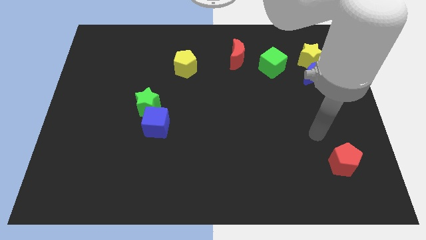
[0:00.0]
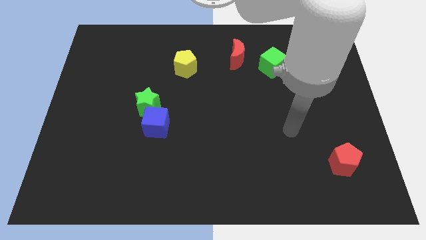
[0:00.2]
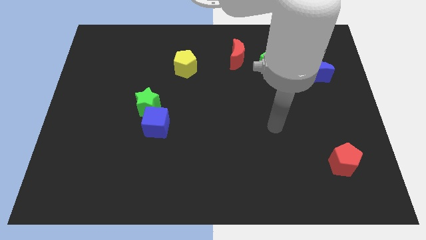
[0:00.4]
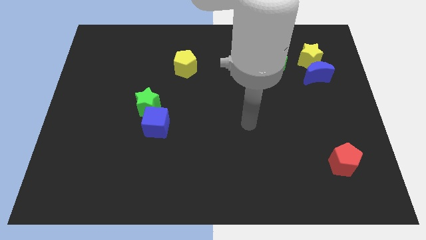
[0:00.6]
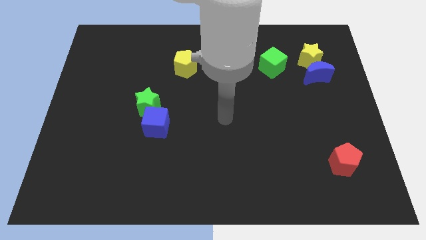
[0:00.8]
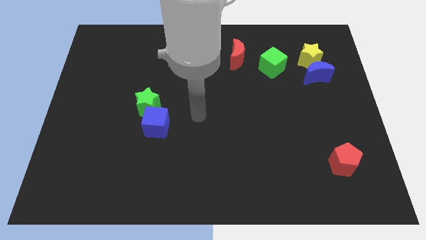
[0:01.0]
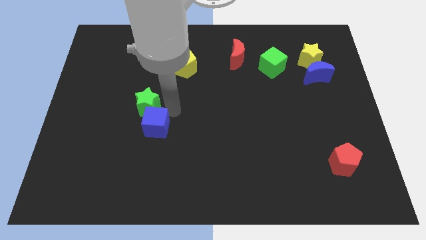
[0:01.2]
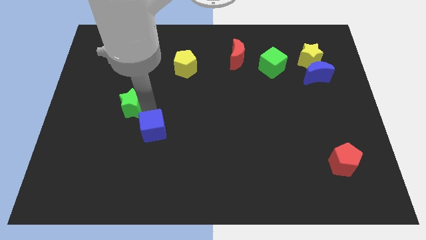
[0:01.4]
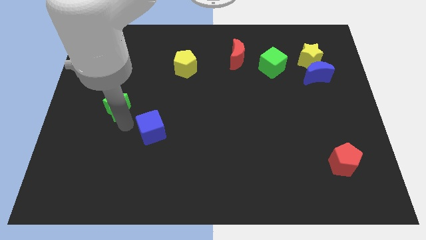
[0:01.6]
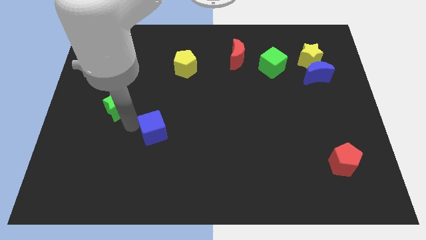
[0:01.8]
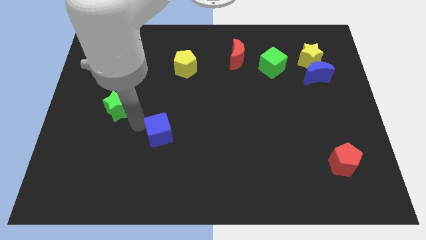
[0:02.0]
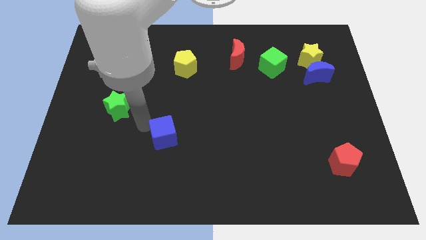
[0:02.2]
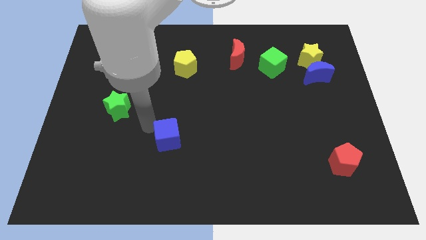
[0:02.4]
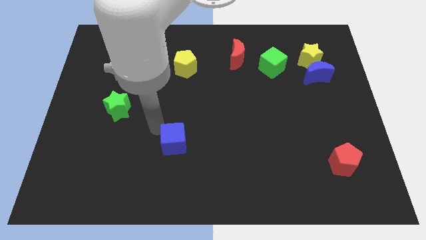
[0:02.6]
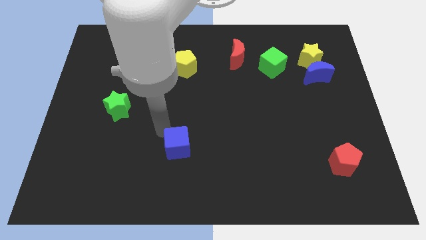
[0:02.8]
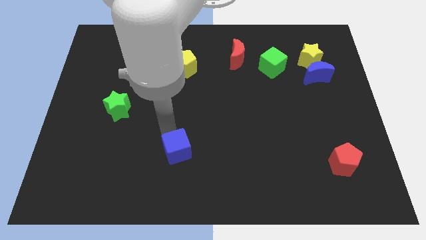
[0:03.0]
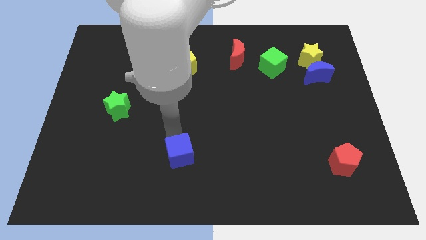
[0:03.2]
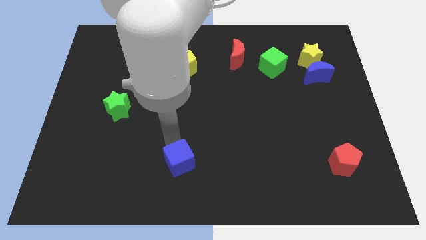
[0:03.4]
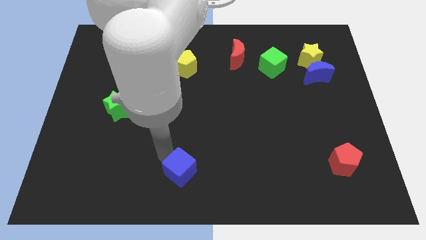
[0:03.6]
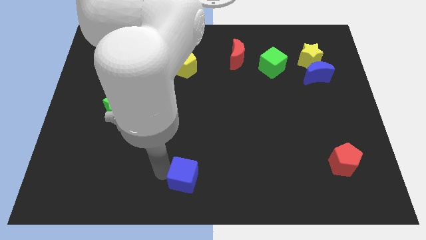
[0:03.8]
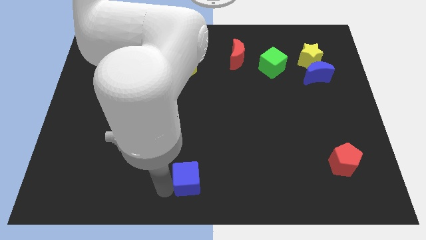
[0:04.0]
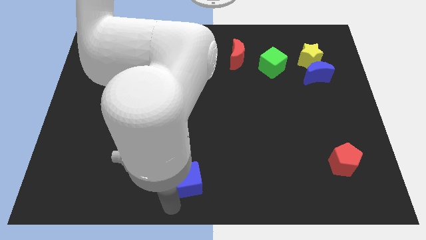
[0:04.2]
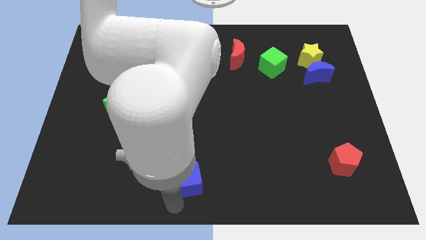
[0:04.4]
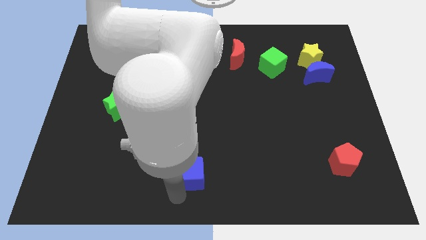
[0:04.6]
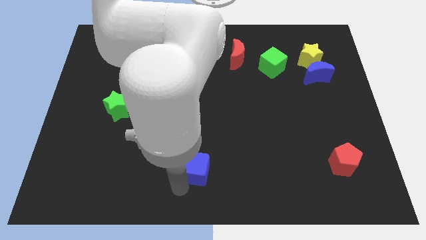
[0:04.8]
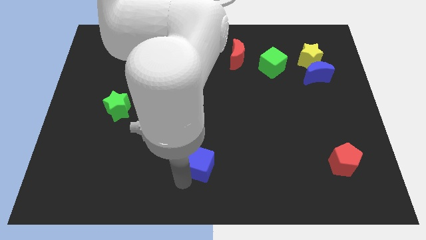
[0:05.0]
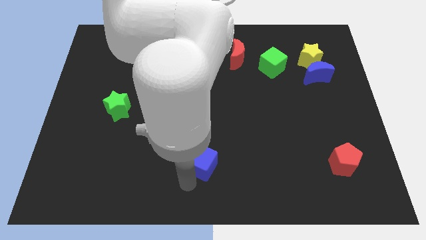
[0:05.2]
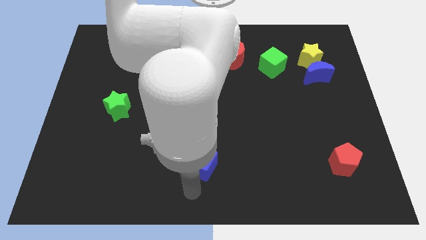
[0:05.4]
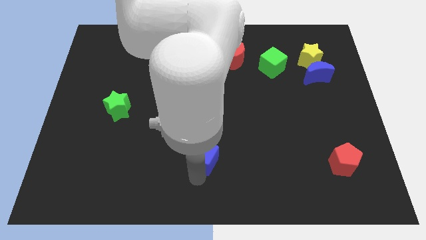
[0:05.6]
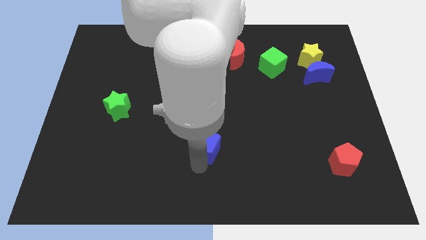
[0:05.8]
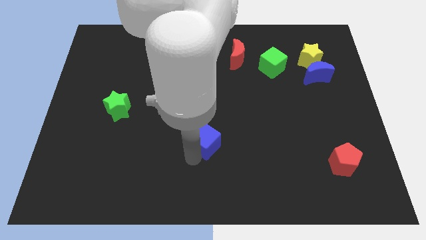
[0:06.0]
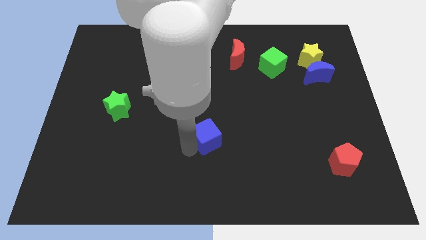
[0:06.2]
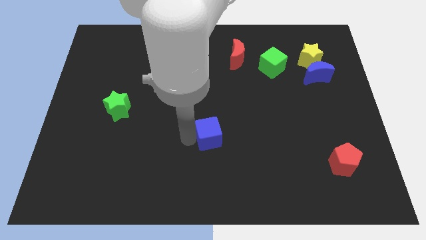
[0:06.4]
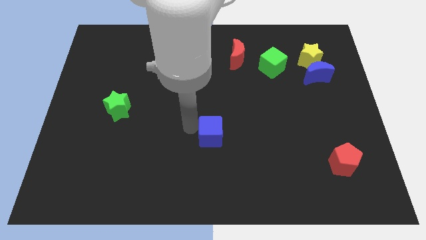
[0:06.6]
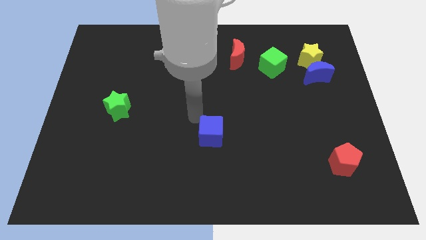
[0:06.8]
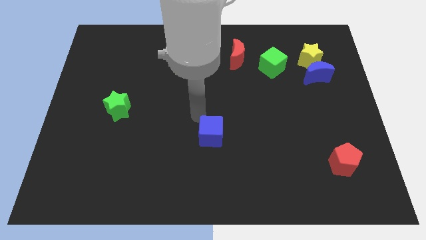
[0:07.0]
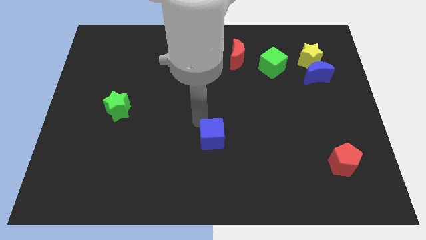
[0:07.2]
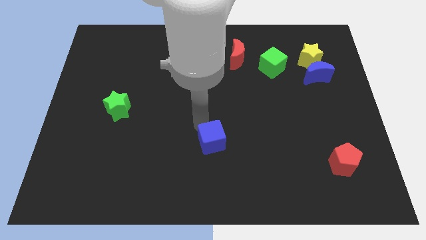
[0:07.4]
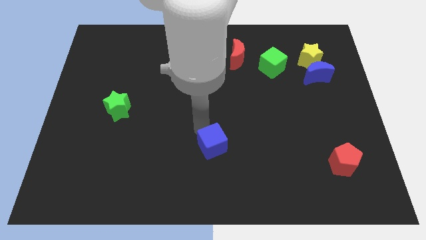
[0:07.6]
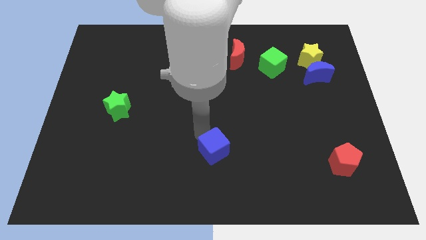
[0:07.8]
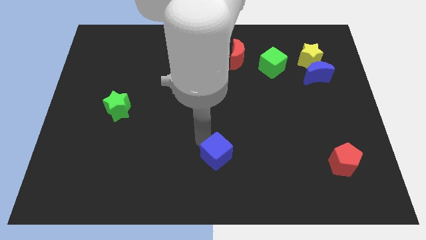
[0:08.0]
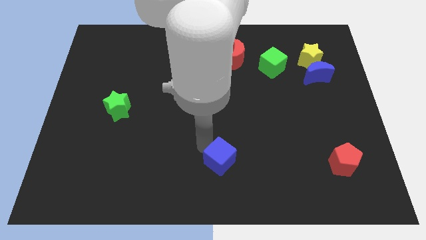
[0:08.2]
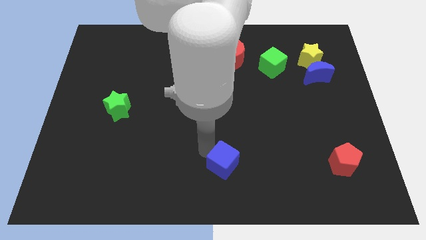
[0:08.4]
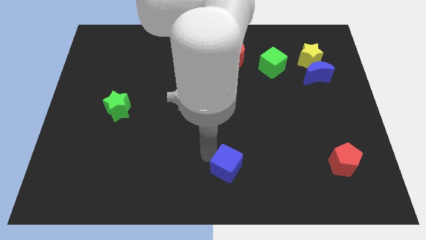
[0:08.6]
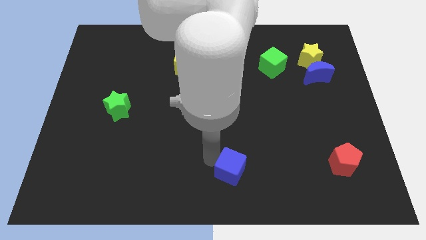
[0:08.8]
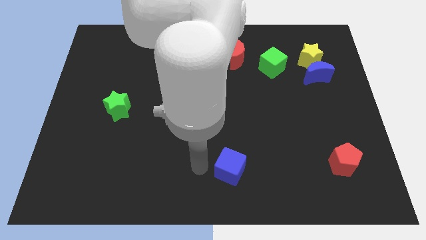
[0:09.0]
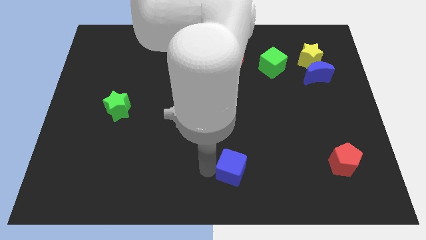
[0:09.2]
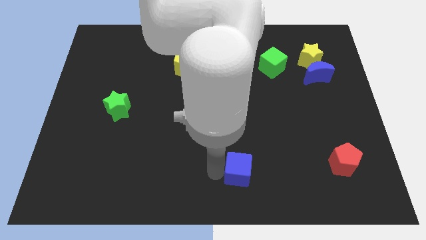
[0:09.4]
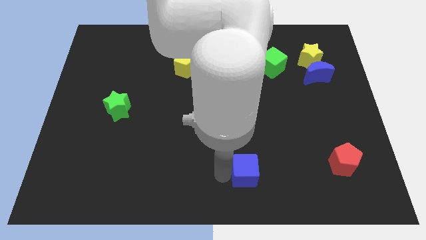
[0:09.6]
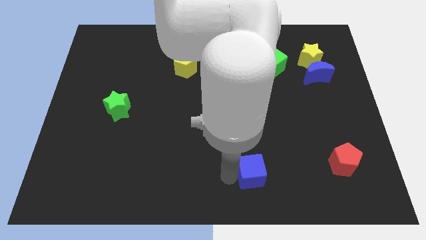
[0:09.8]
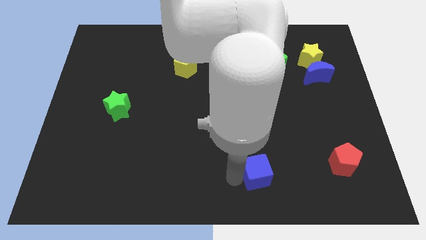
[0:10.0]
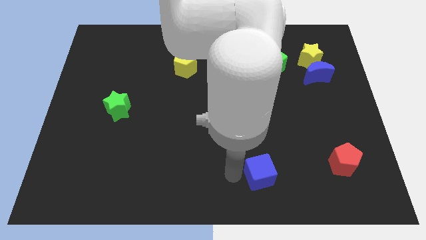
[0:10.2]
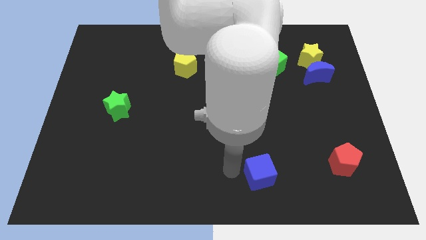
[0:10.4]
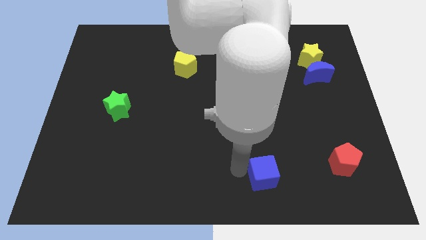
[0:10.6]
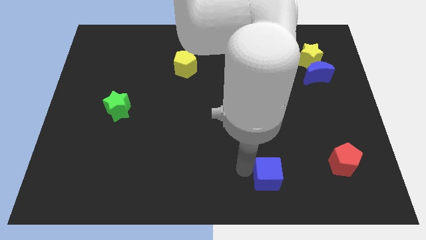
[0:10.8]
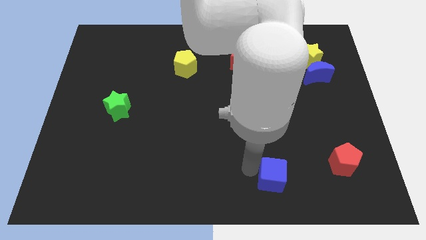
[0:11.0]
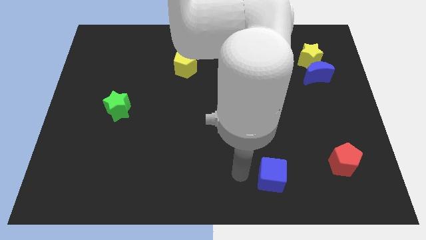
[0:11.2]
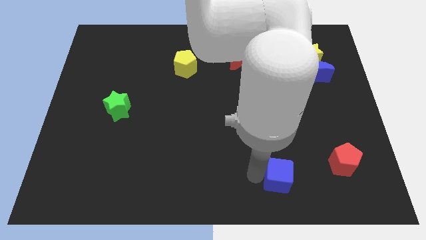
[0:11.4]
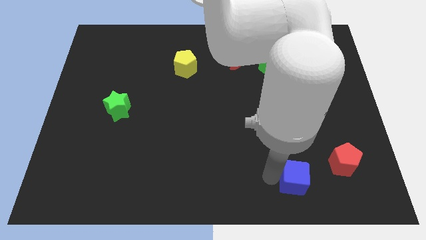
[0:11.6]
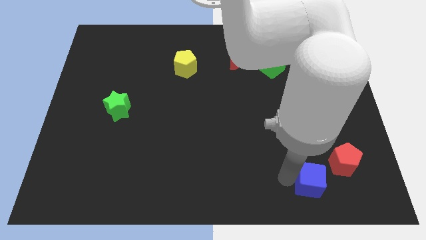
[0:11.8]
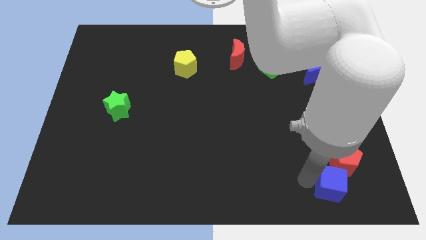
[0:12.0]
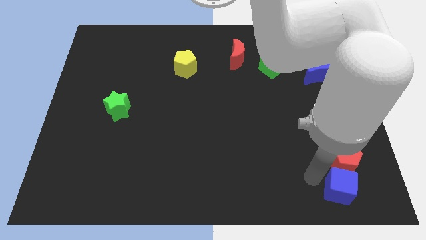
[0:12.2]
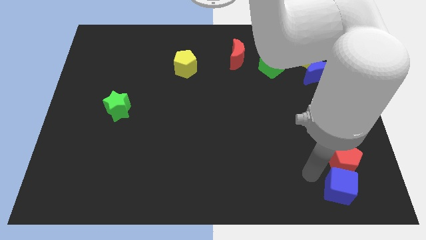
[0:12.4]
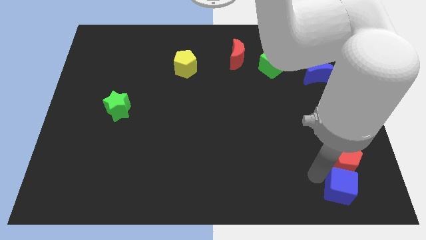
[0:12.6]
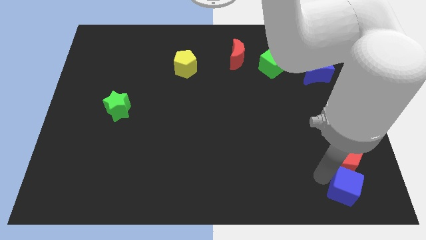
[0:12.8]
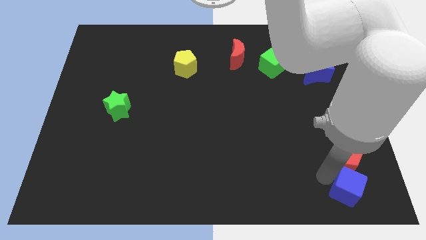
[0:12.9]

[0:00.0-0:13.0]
put the blue cube to the lower right corner
